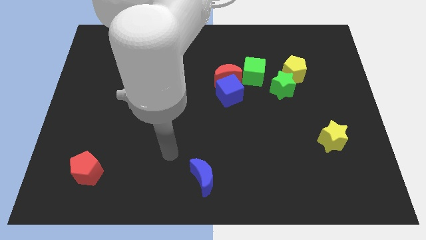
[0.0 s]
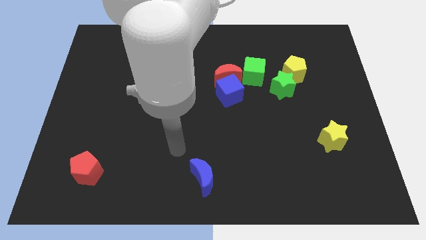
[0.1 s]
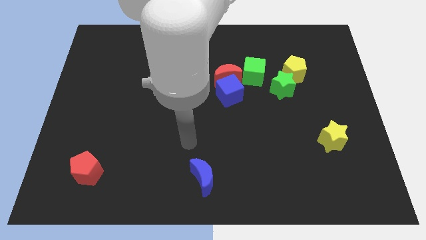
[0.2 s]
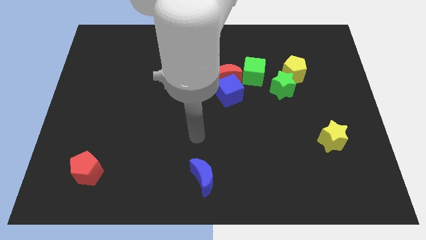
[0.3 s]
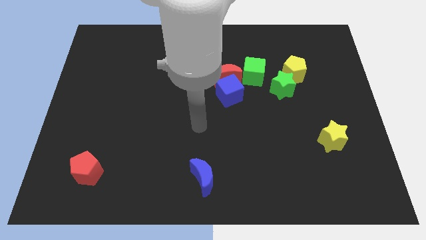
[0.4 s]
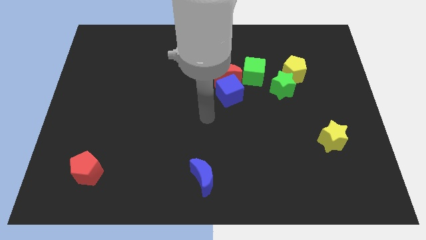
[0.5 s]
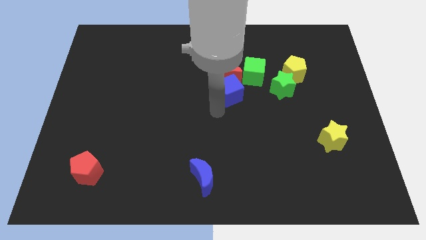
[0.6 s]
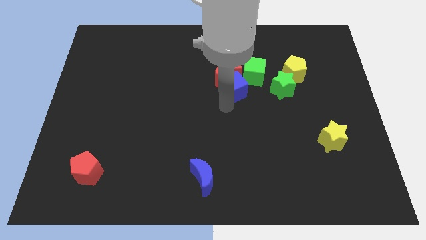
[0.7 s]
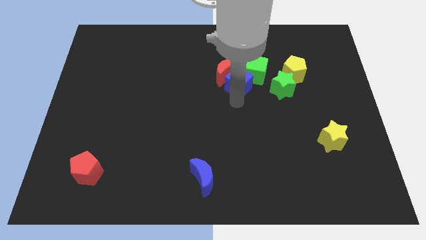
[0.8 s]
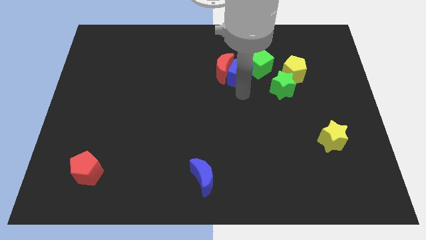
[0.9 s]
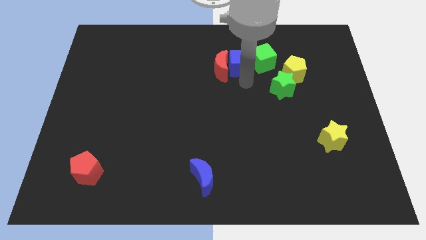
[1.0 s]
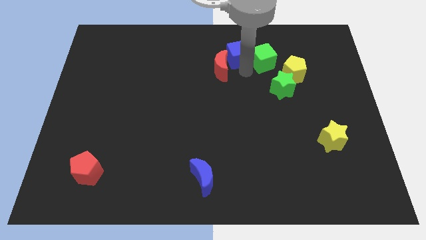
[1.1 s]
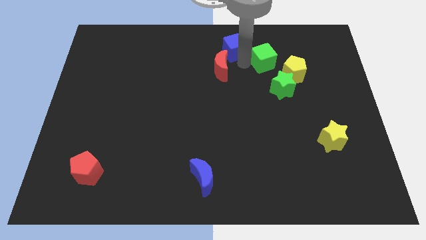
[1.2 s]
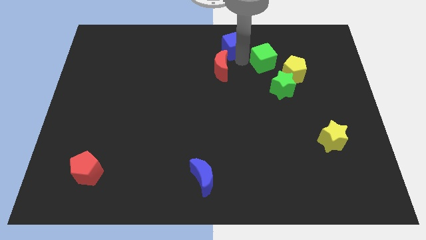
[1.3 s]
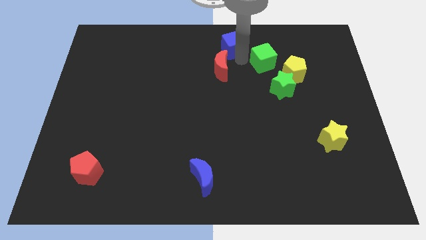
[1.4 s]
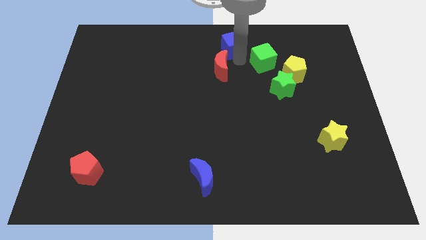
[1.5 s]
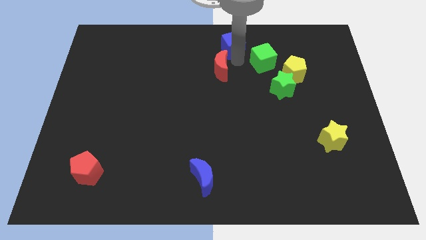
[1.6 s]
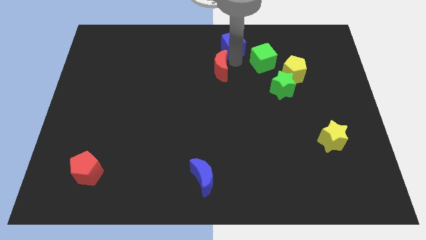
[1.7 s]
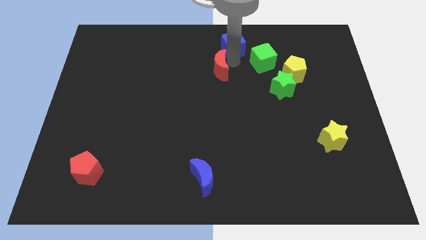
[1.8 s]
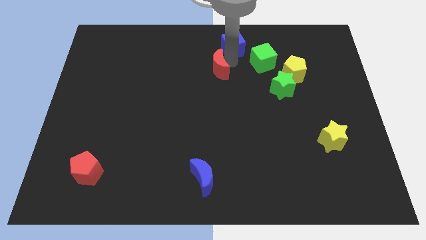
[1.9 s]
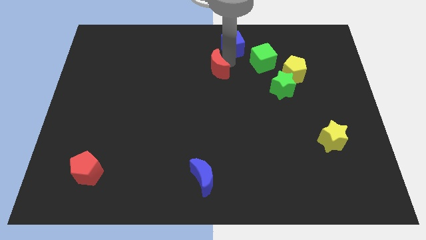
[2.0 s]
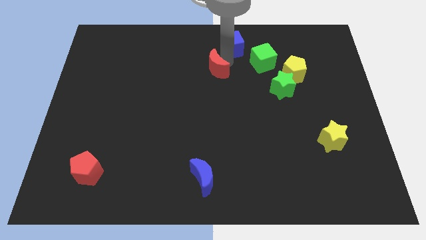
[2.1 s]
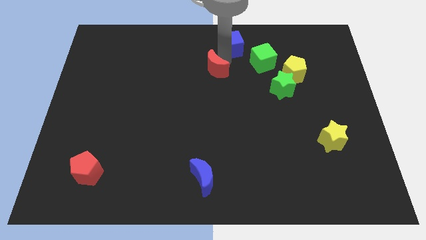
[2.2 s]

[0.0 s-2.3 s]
separate the red moon from the blue cube and green cube

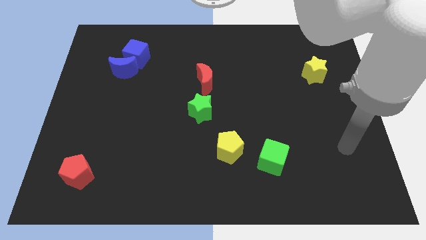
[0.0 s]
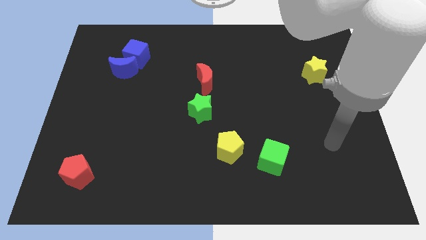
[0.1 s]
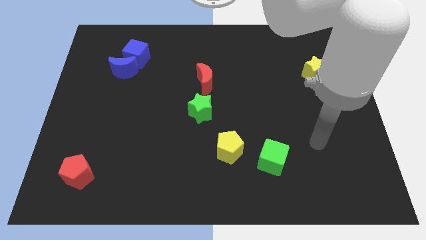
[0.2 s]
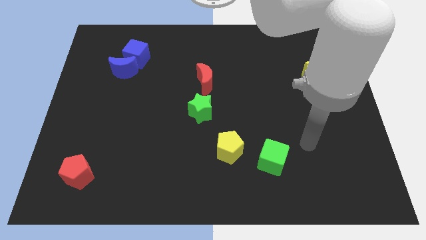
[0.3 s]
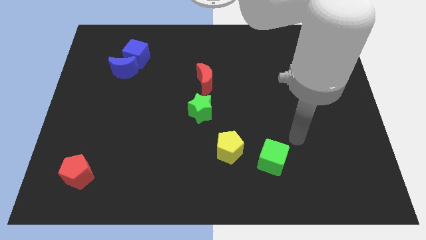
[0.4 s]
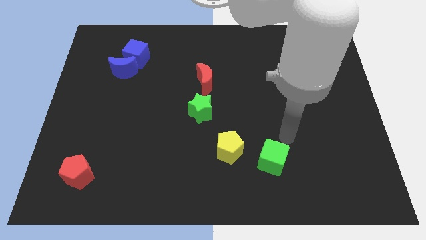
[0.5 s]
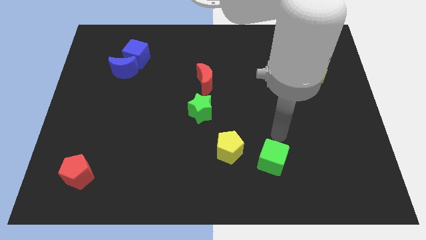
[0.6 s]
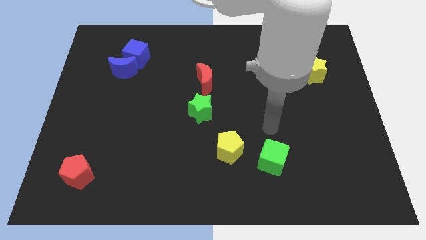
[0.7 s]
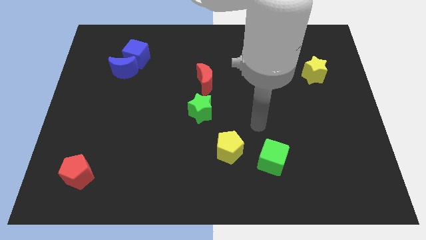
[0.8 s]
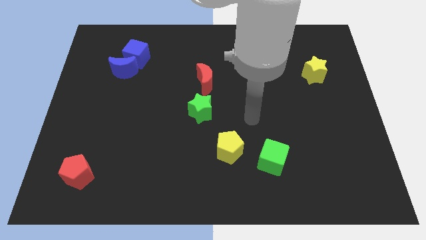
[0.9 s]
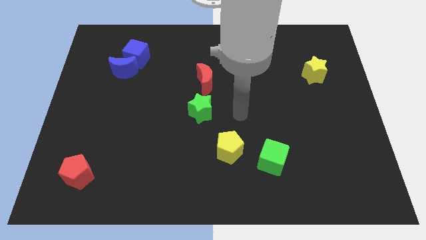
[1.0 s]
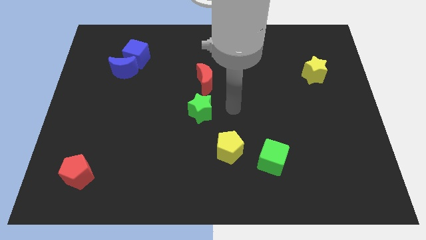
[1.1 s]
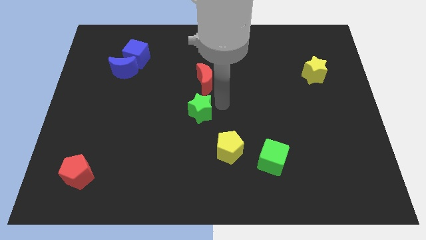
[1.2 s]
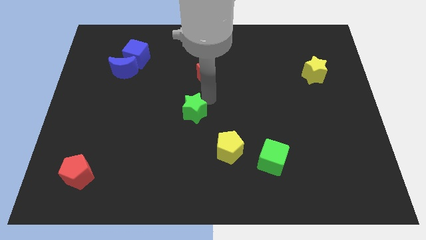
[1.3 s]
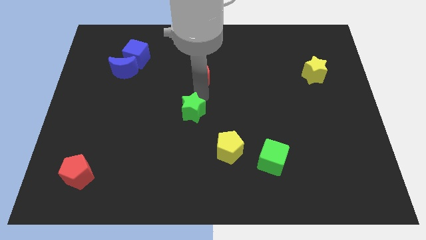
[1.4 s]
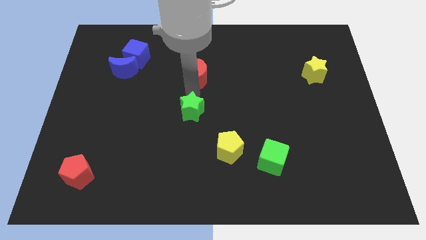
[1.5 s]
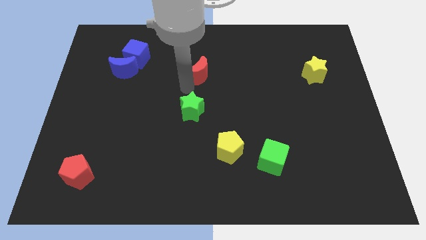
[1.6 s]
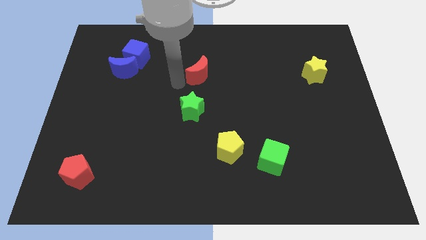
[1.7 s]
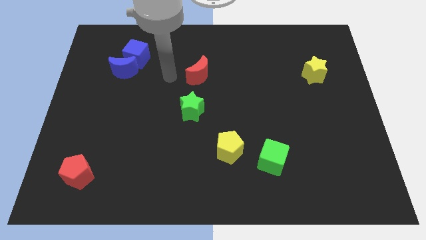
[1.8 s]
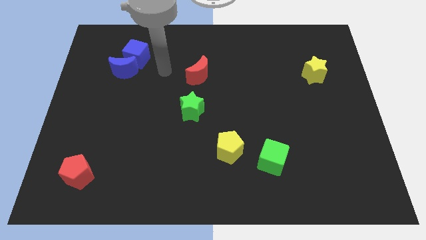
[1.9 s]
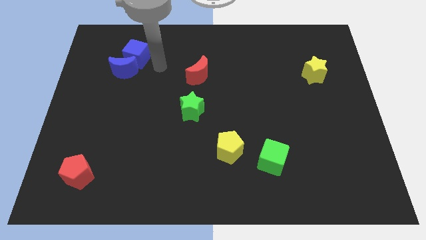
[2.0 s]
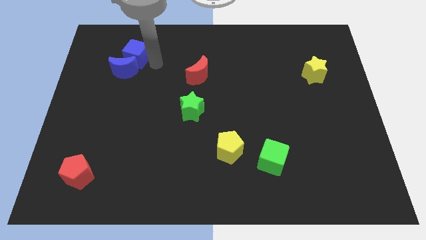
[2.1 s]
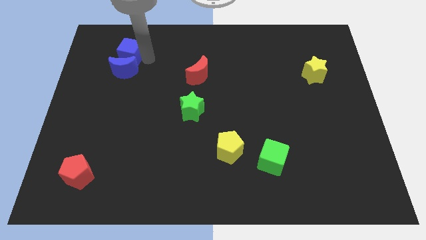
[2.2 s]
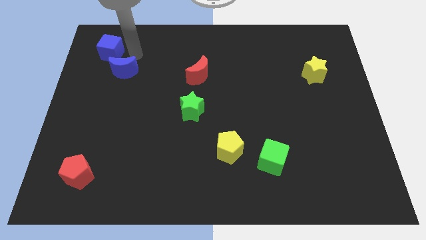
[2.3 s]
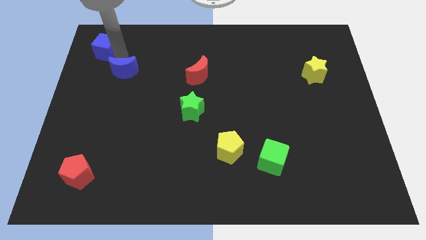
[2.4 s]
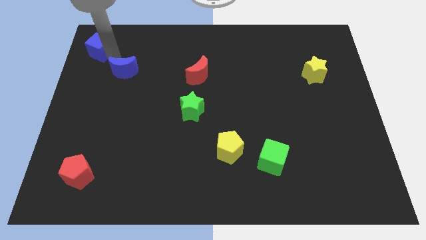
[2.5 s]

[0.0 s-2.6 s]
pull the blue moon apart from the blue cube

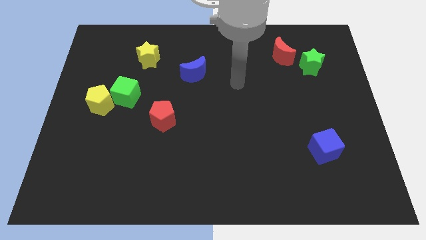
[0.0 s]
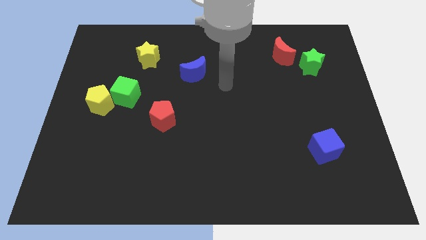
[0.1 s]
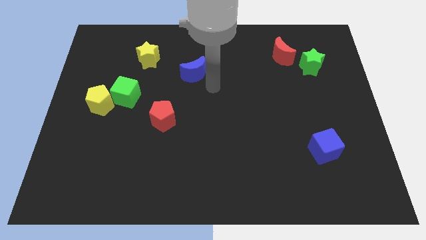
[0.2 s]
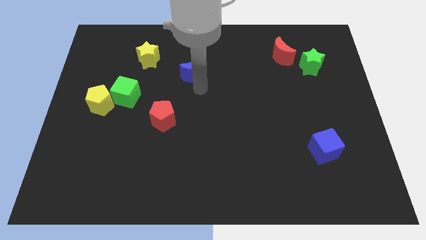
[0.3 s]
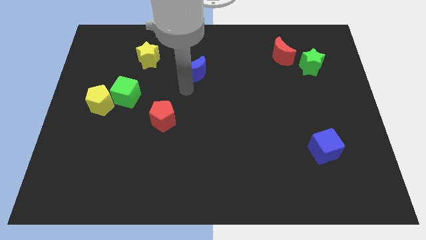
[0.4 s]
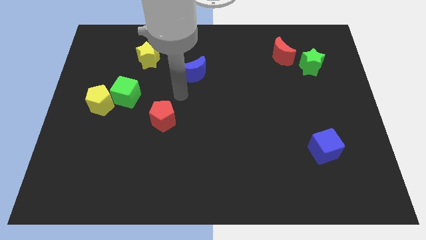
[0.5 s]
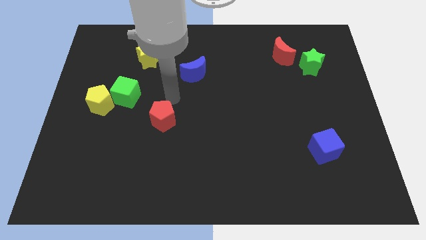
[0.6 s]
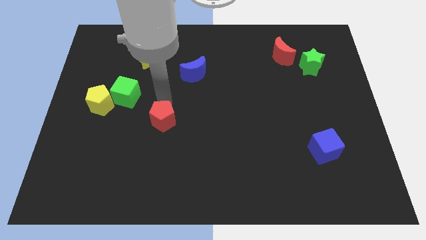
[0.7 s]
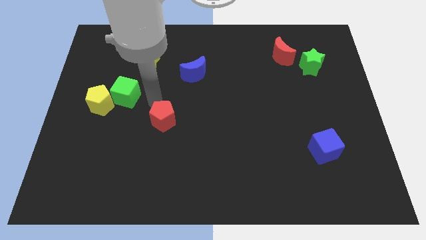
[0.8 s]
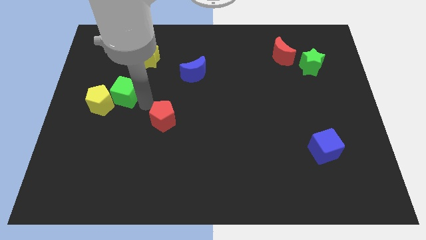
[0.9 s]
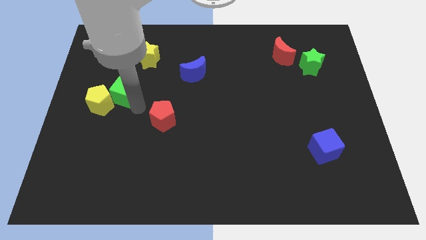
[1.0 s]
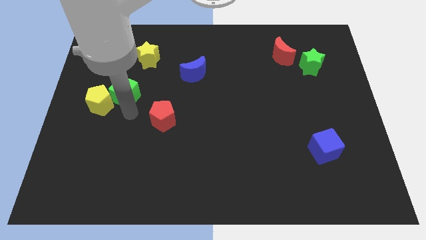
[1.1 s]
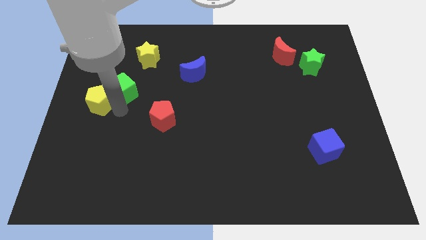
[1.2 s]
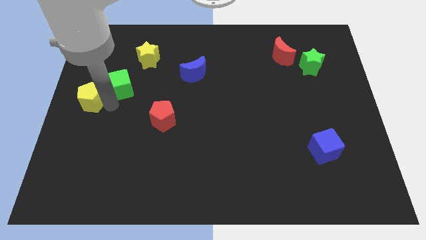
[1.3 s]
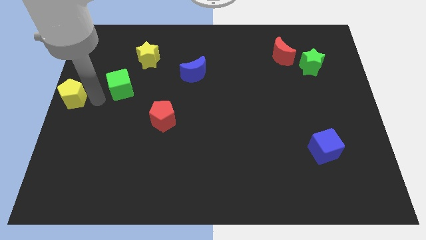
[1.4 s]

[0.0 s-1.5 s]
separate the green cube from the yellow pentagon

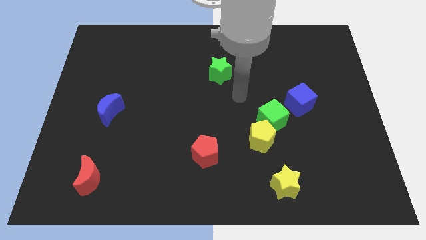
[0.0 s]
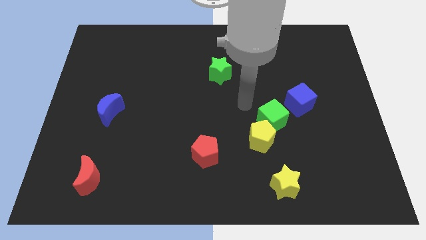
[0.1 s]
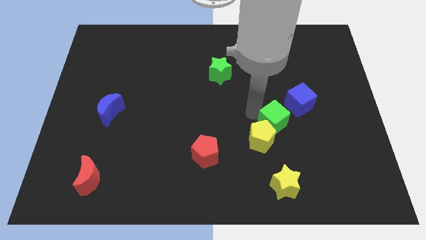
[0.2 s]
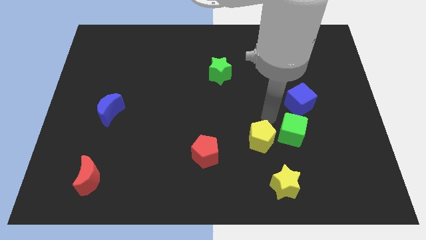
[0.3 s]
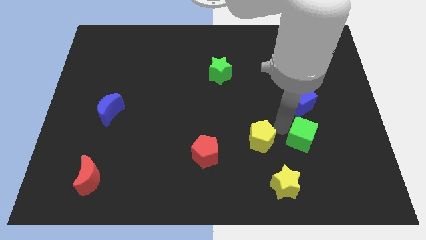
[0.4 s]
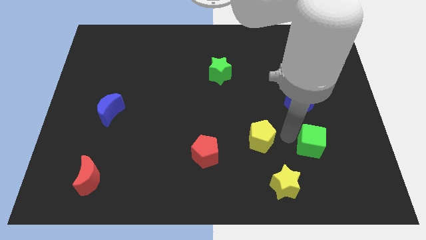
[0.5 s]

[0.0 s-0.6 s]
move the yellow pentagon away from the green cube

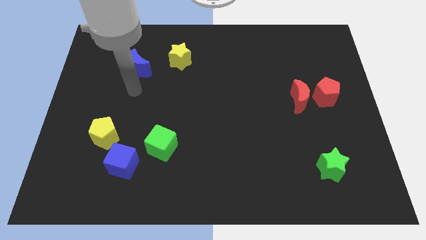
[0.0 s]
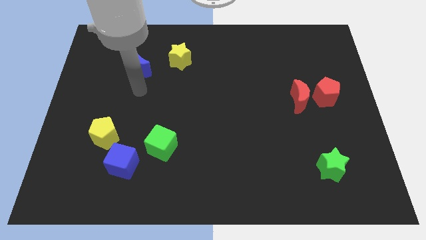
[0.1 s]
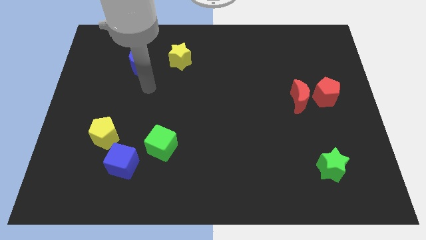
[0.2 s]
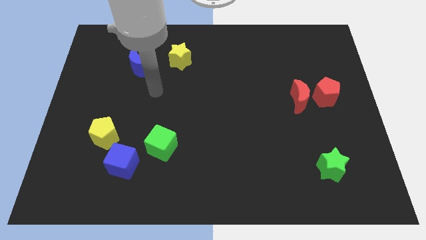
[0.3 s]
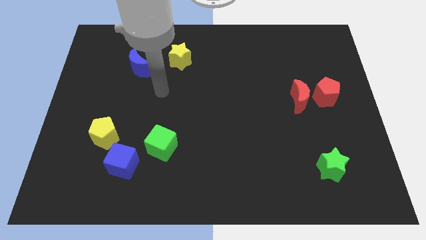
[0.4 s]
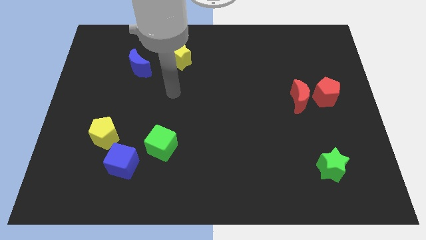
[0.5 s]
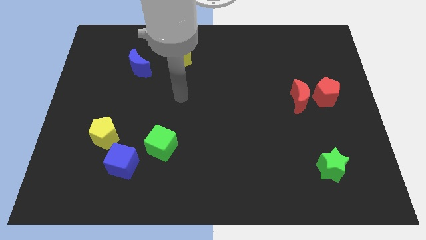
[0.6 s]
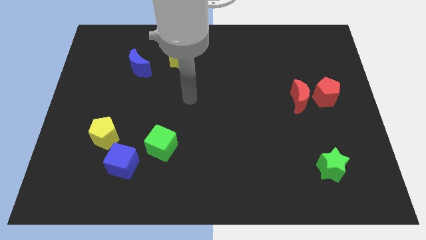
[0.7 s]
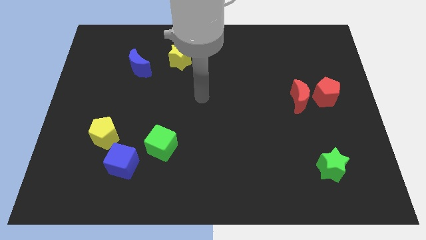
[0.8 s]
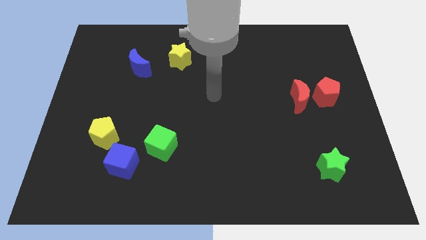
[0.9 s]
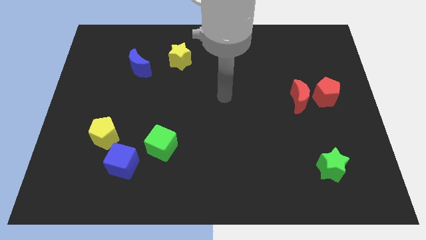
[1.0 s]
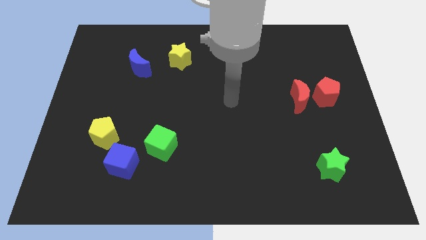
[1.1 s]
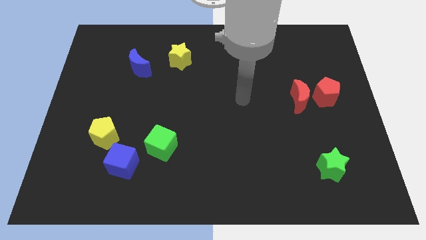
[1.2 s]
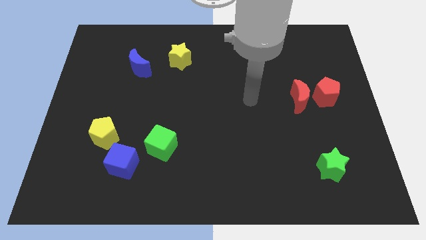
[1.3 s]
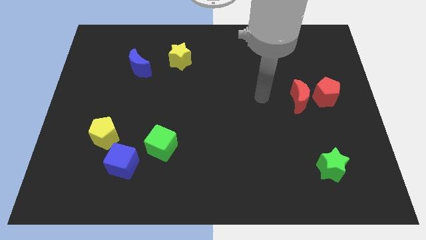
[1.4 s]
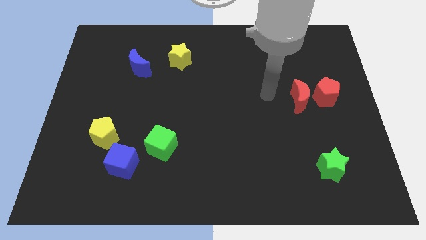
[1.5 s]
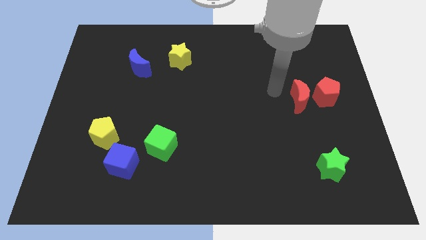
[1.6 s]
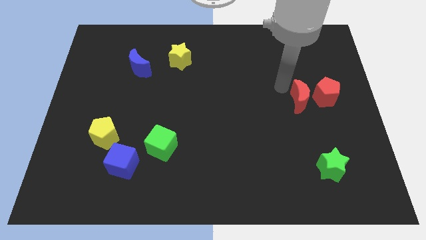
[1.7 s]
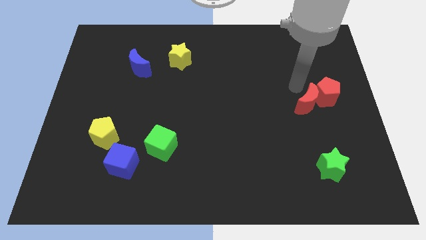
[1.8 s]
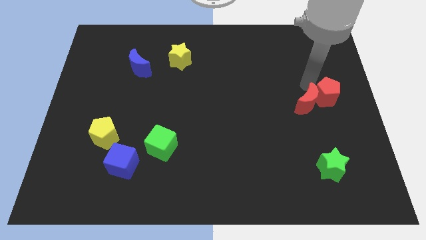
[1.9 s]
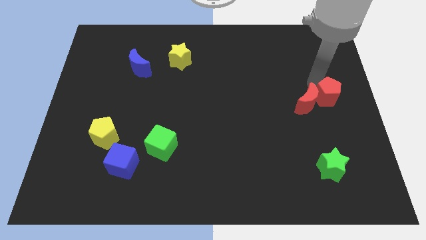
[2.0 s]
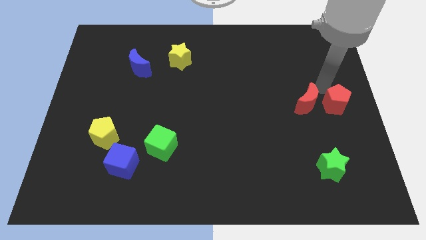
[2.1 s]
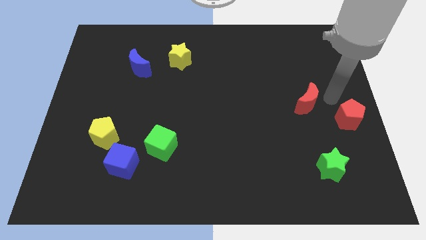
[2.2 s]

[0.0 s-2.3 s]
move the red moon away from the red pentagon
